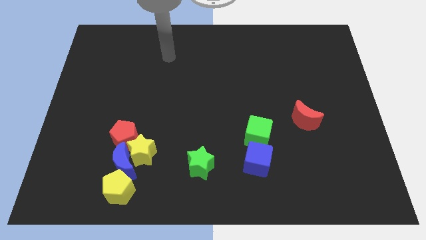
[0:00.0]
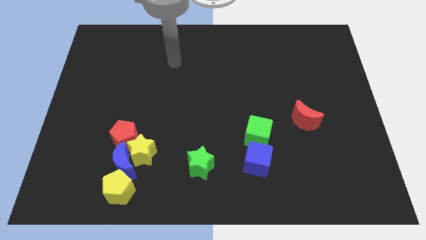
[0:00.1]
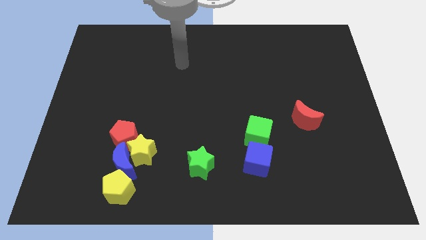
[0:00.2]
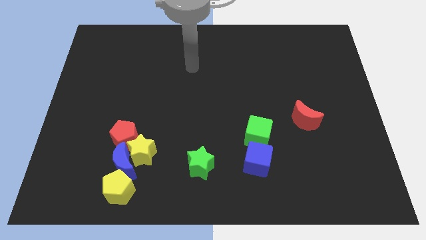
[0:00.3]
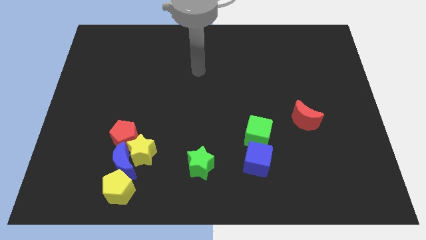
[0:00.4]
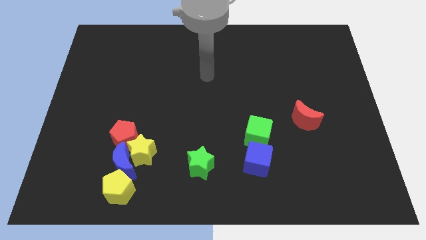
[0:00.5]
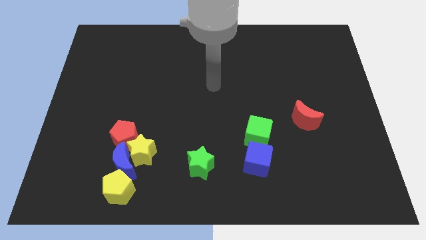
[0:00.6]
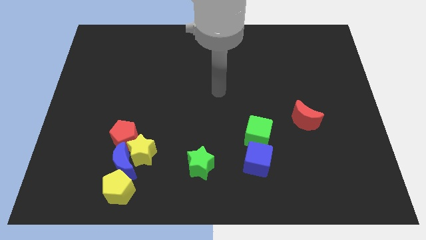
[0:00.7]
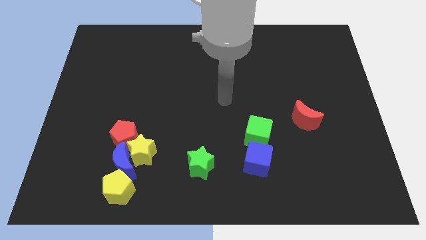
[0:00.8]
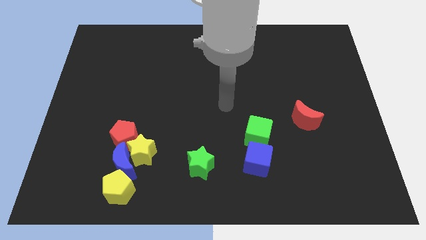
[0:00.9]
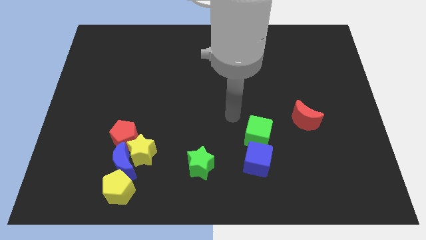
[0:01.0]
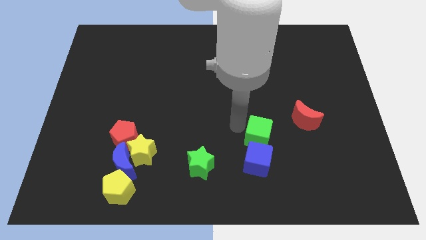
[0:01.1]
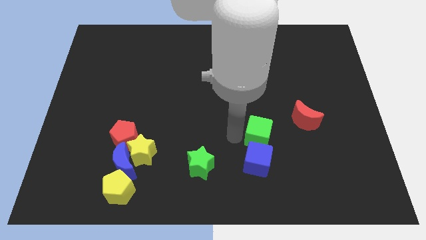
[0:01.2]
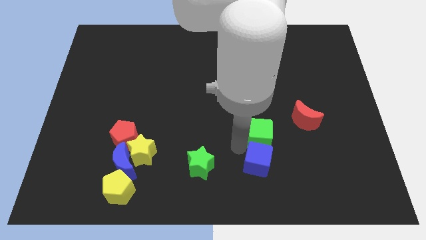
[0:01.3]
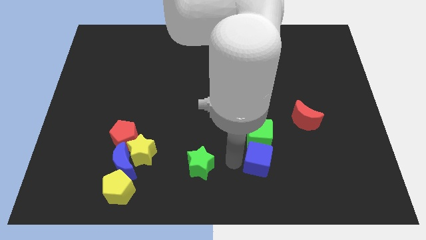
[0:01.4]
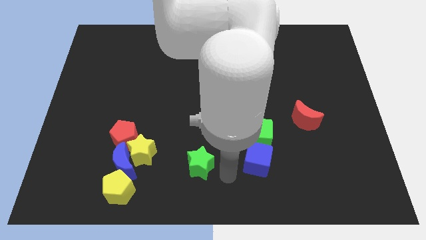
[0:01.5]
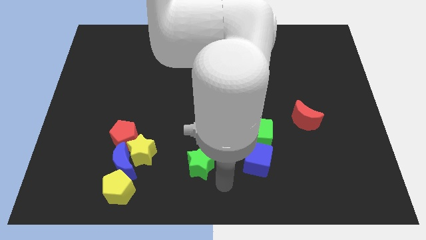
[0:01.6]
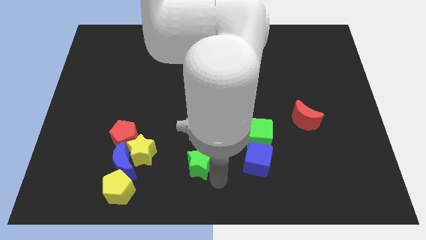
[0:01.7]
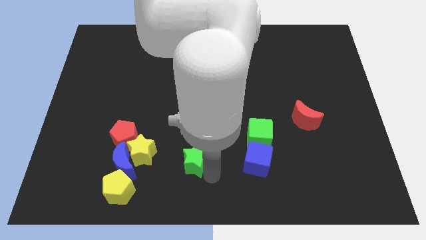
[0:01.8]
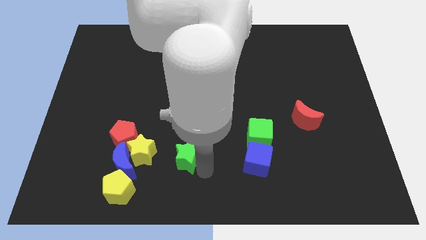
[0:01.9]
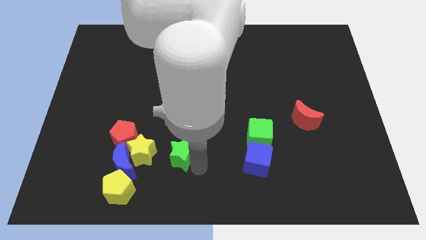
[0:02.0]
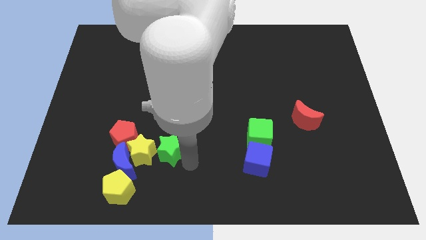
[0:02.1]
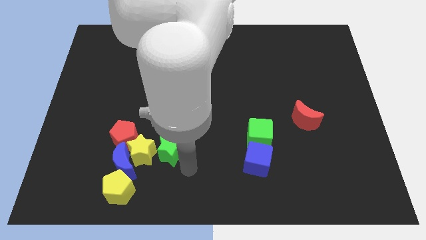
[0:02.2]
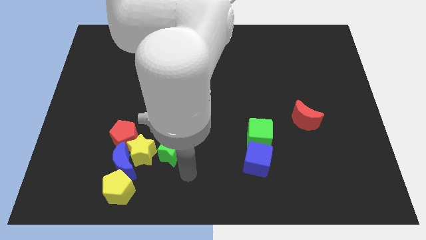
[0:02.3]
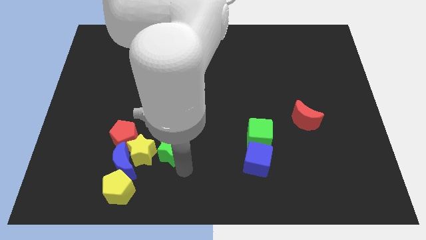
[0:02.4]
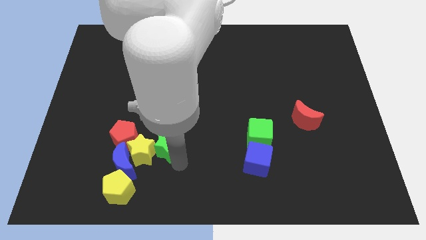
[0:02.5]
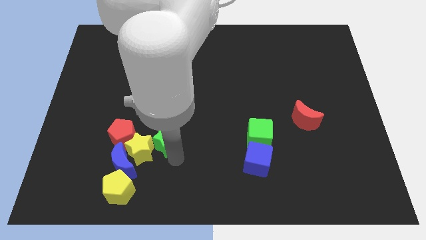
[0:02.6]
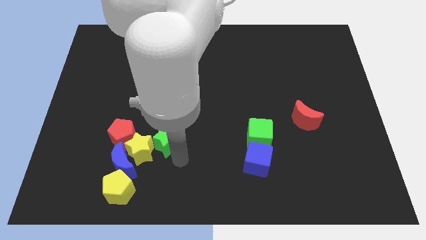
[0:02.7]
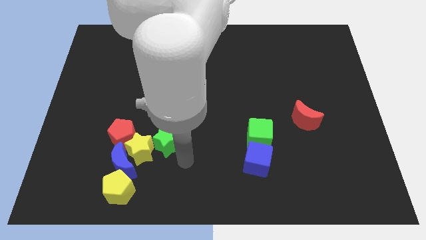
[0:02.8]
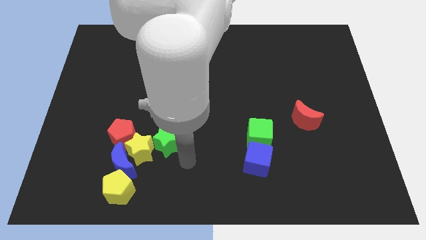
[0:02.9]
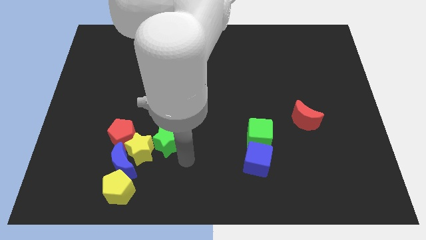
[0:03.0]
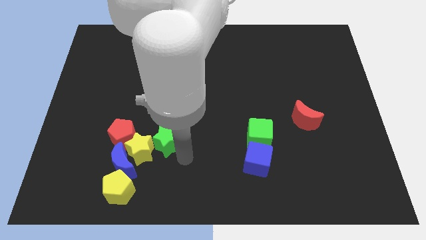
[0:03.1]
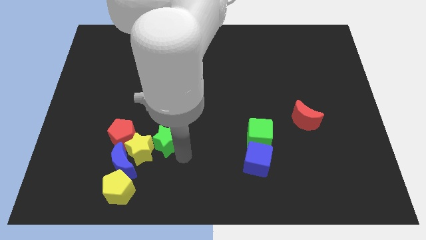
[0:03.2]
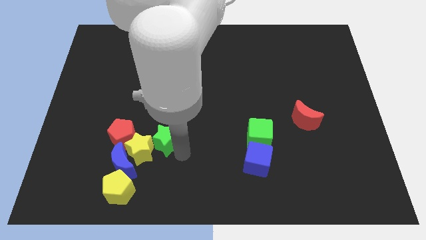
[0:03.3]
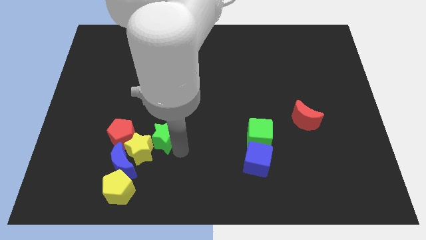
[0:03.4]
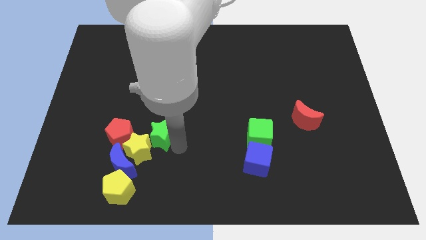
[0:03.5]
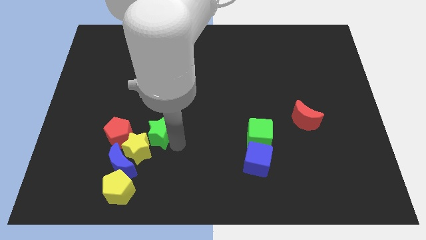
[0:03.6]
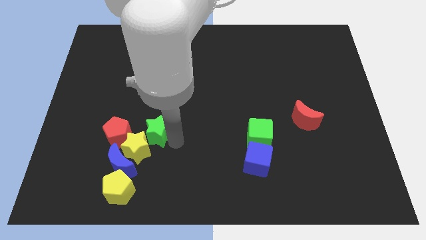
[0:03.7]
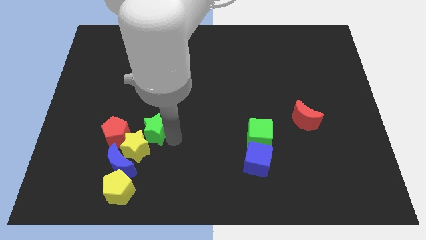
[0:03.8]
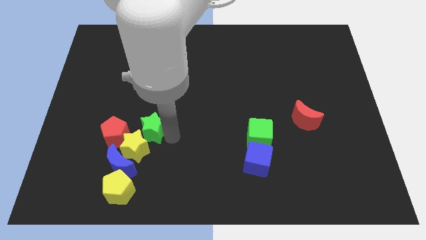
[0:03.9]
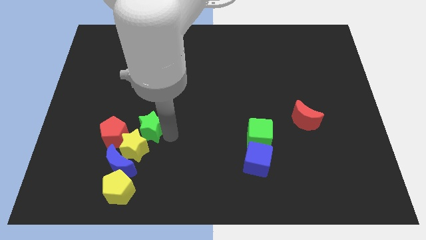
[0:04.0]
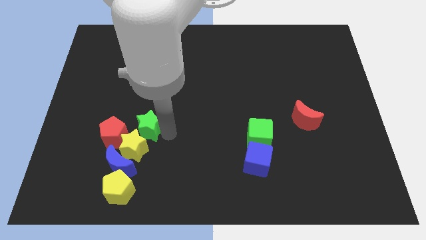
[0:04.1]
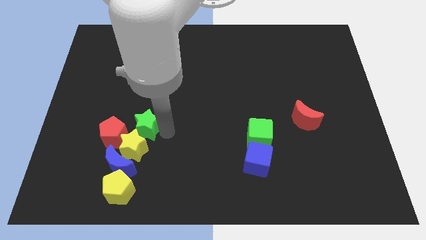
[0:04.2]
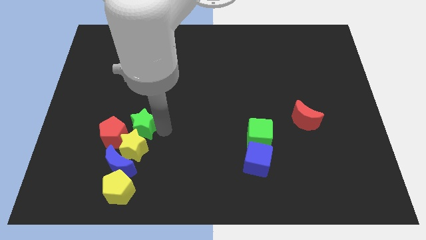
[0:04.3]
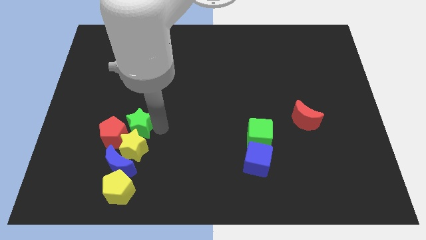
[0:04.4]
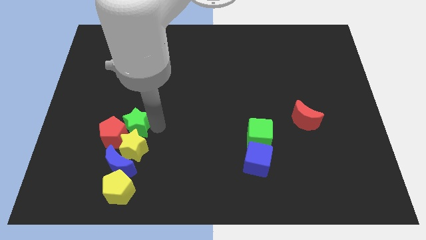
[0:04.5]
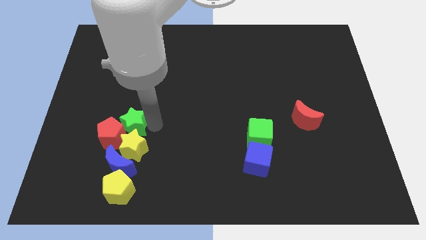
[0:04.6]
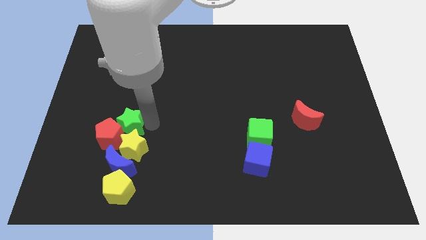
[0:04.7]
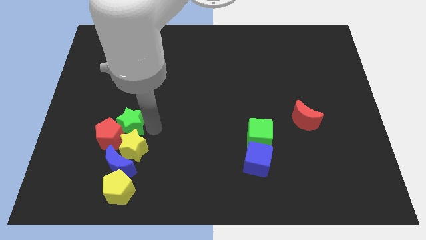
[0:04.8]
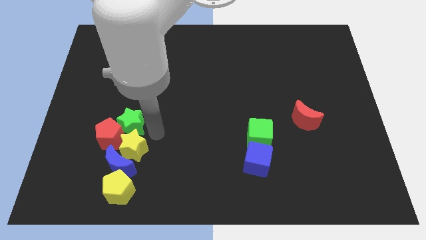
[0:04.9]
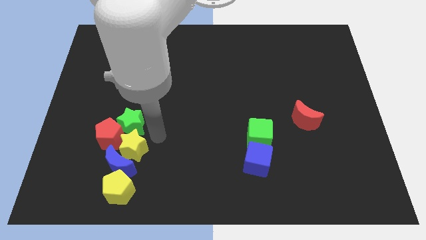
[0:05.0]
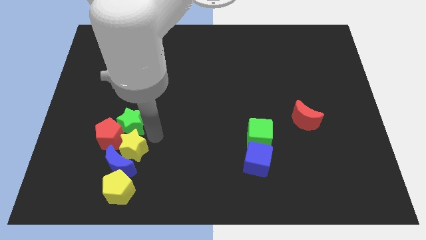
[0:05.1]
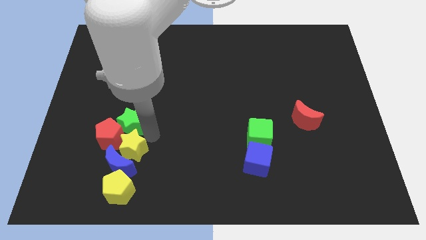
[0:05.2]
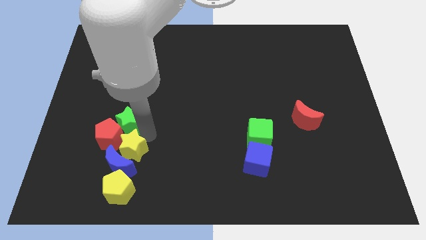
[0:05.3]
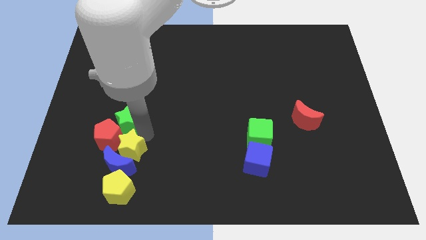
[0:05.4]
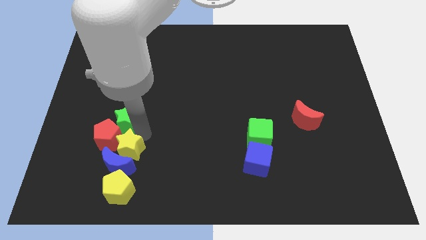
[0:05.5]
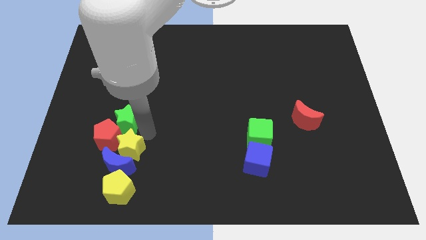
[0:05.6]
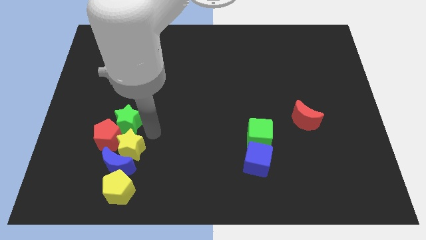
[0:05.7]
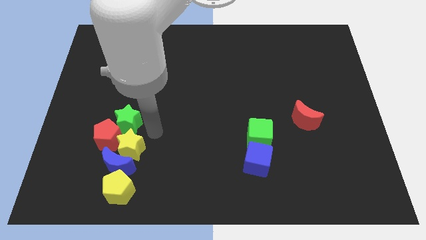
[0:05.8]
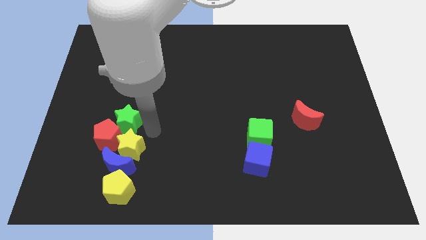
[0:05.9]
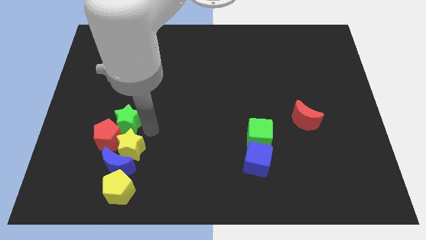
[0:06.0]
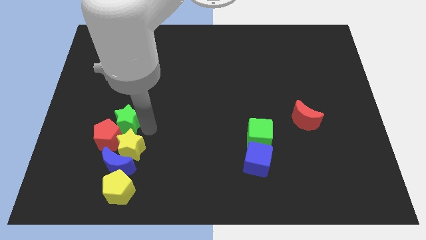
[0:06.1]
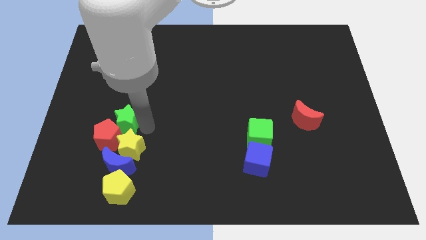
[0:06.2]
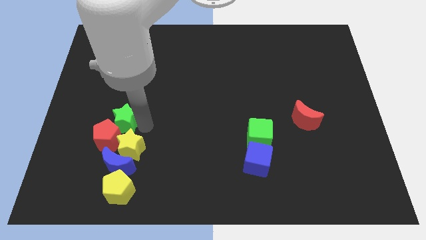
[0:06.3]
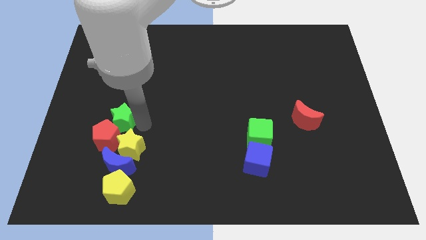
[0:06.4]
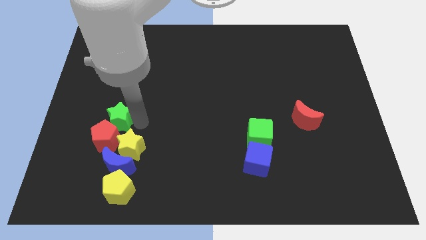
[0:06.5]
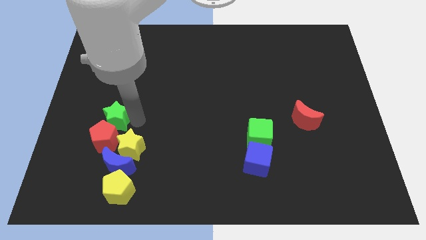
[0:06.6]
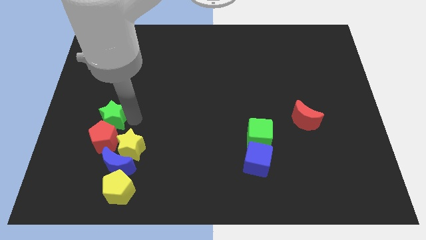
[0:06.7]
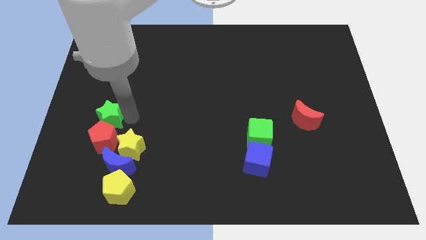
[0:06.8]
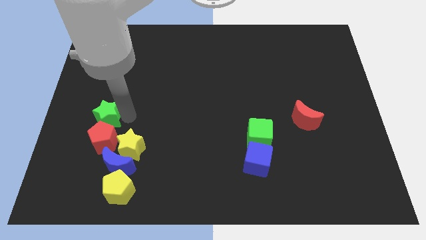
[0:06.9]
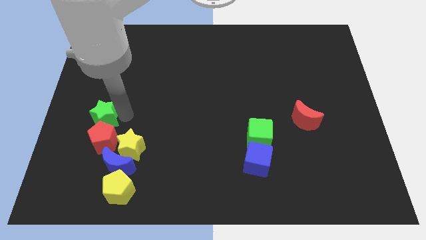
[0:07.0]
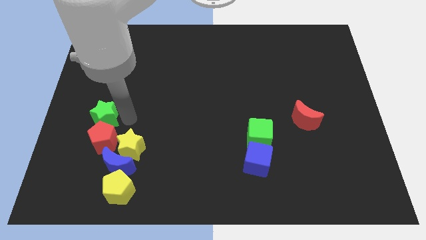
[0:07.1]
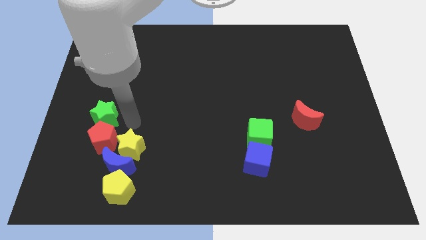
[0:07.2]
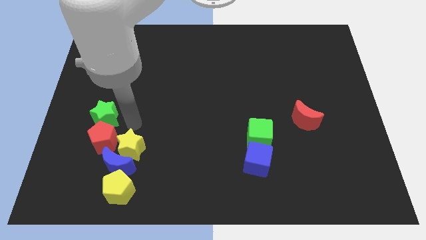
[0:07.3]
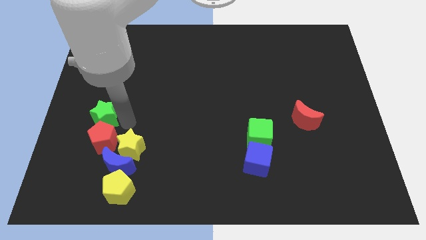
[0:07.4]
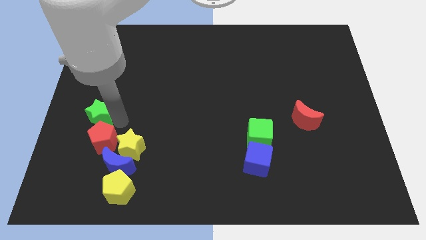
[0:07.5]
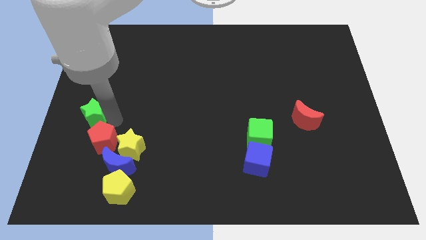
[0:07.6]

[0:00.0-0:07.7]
push the green star to the center left
